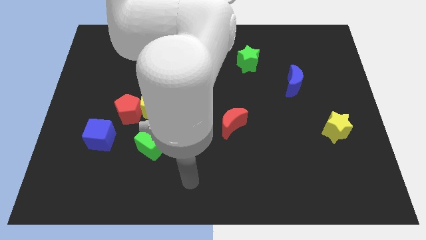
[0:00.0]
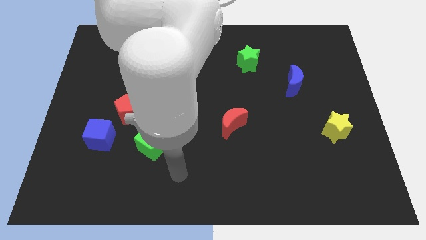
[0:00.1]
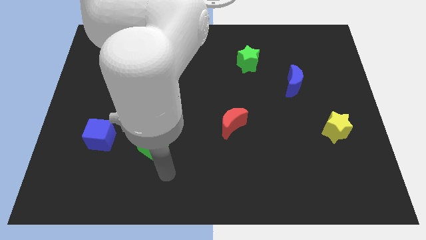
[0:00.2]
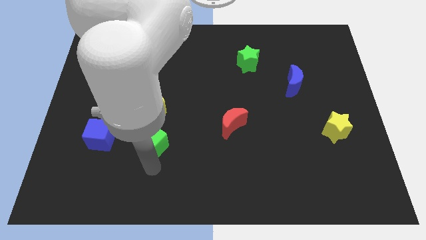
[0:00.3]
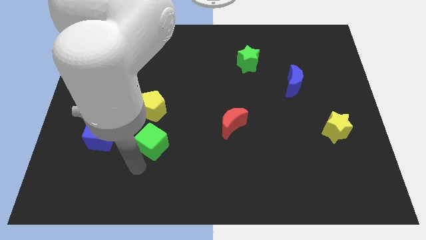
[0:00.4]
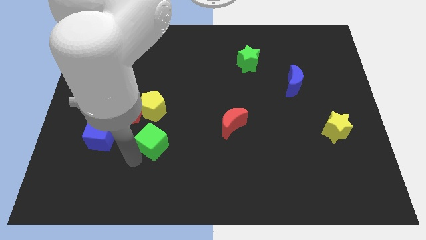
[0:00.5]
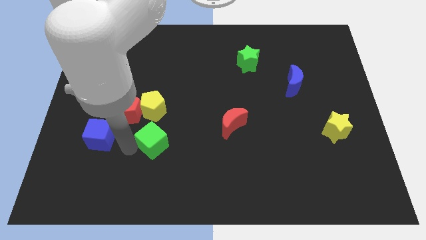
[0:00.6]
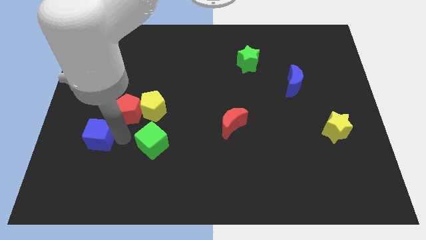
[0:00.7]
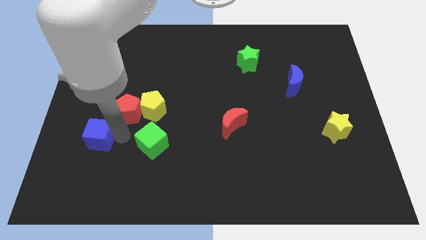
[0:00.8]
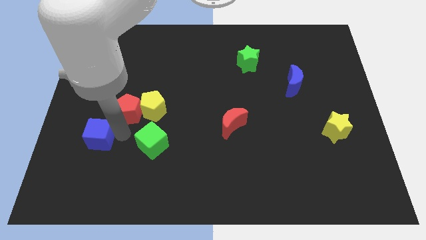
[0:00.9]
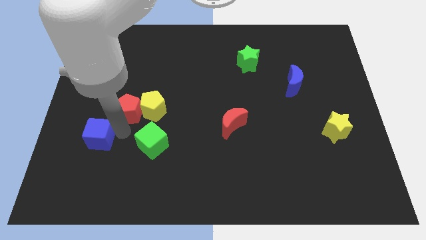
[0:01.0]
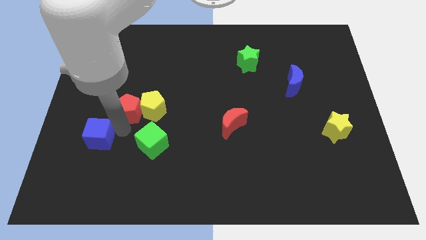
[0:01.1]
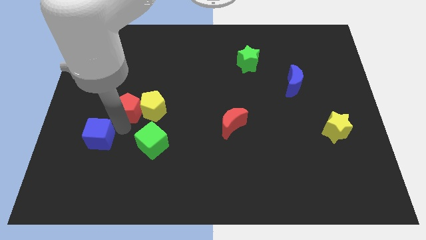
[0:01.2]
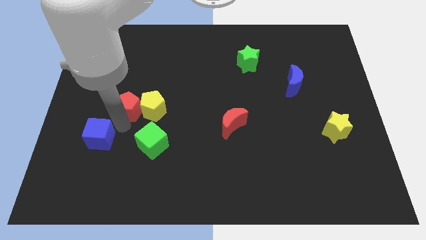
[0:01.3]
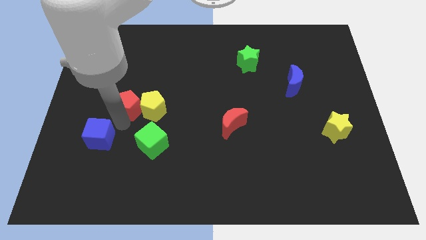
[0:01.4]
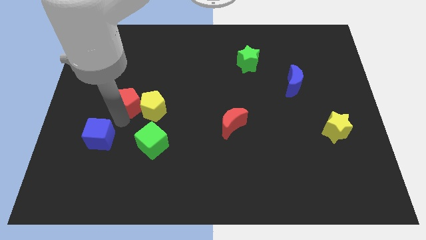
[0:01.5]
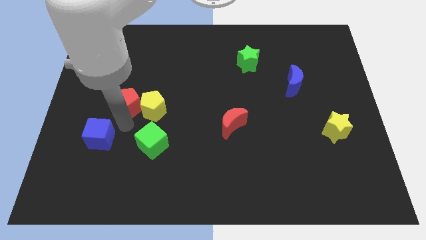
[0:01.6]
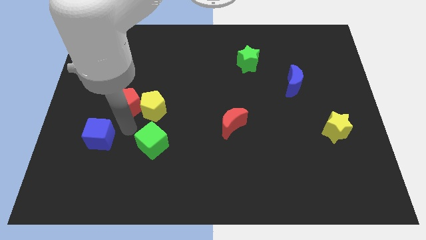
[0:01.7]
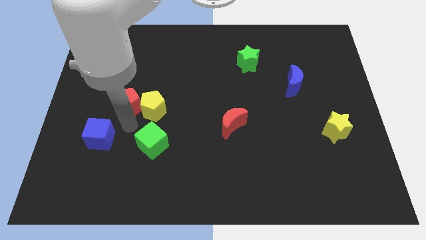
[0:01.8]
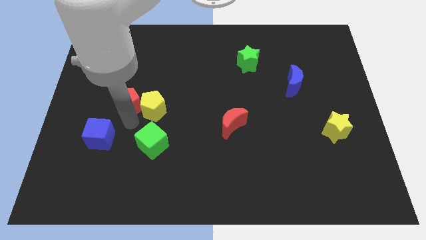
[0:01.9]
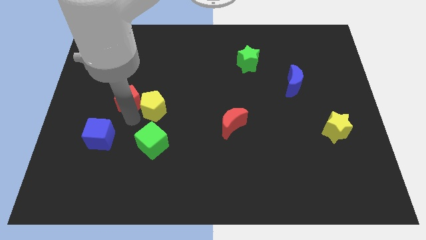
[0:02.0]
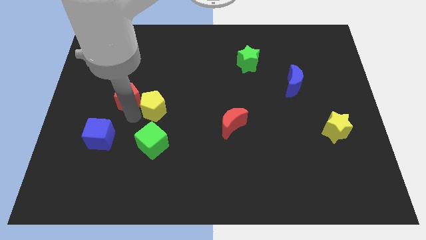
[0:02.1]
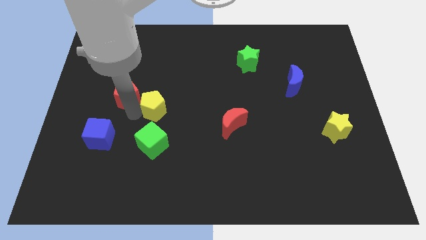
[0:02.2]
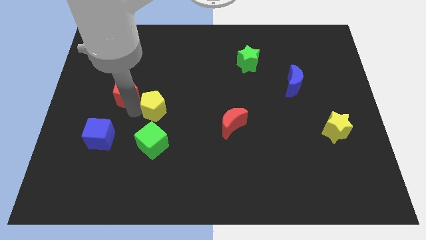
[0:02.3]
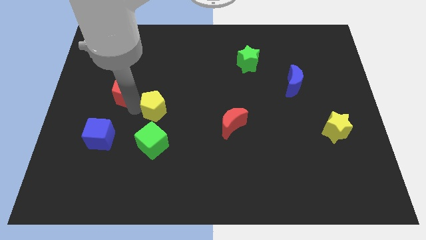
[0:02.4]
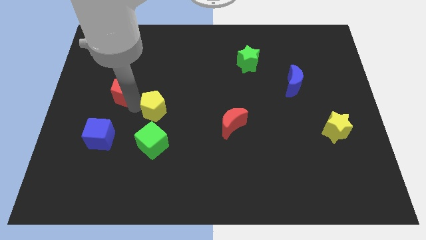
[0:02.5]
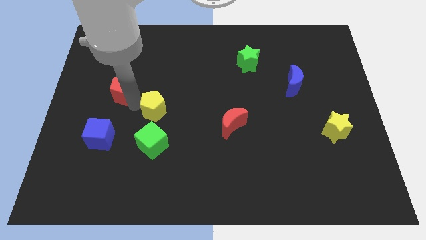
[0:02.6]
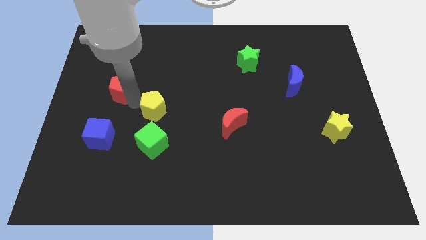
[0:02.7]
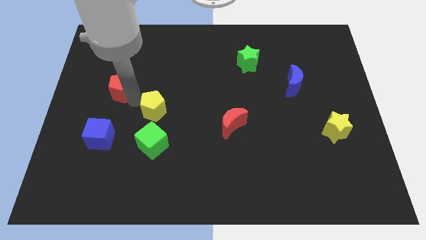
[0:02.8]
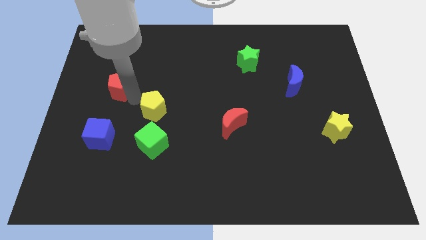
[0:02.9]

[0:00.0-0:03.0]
separate the red pentagon from the yellow pentagon and blue cube

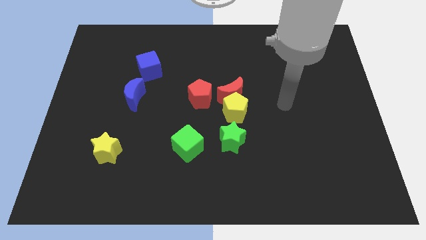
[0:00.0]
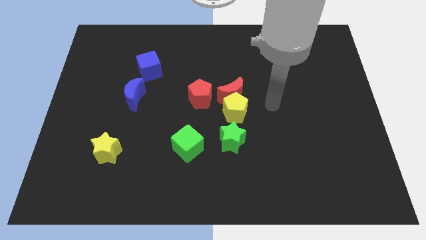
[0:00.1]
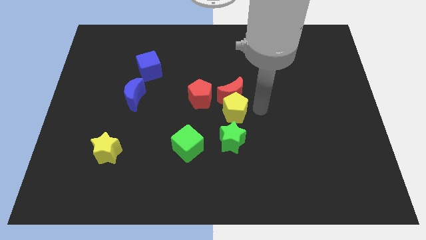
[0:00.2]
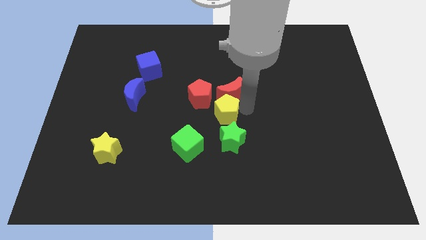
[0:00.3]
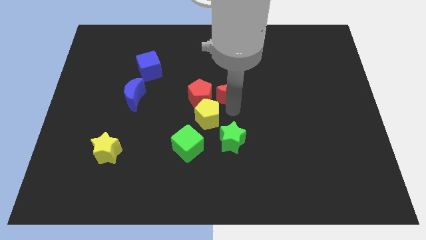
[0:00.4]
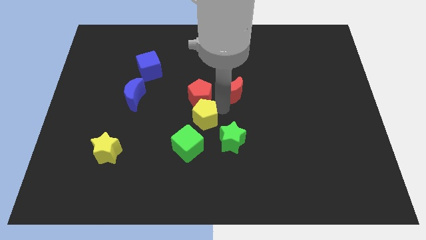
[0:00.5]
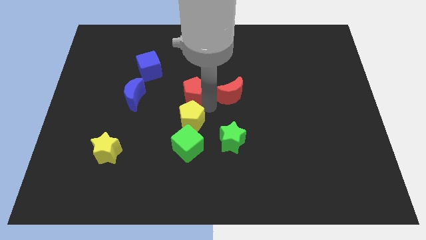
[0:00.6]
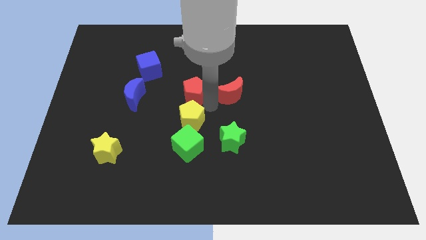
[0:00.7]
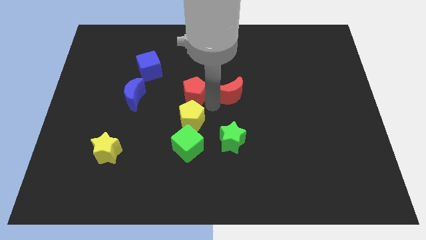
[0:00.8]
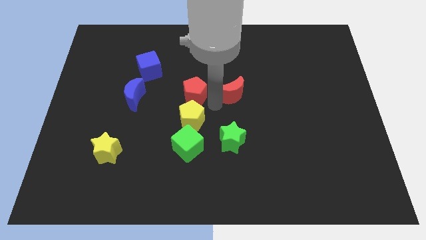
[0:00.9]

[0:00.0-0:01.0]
pull the red moon apart from the yellow pentagon and red pentagon

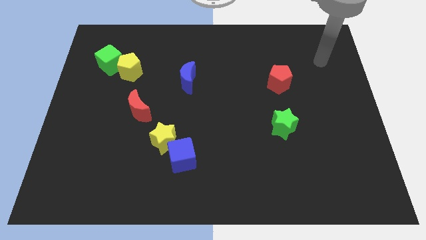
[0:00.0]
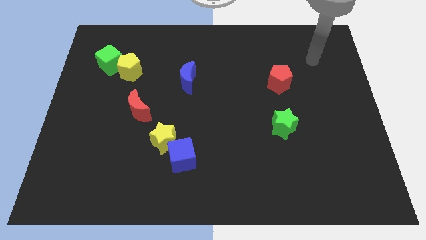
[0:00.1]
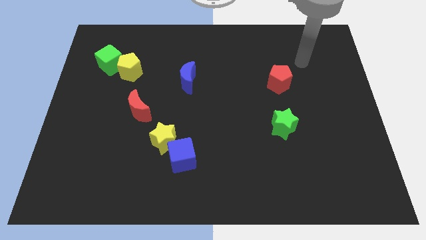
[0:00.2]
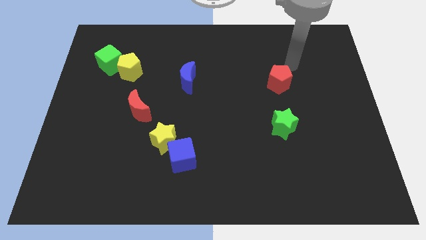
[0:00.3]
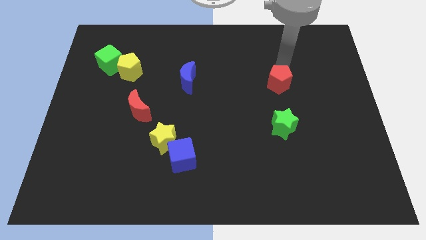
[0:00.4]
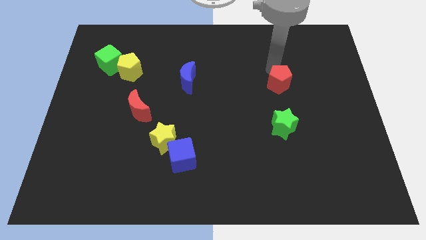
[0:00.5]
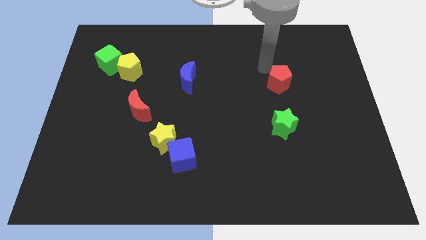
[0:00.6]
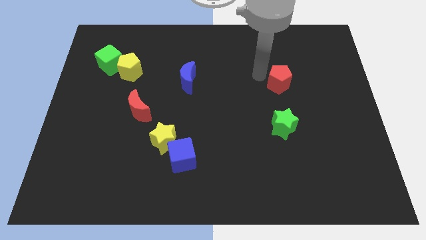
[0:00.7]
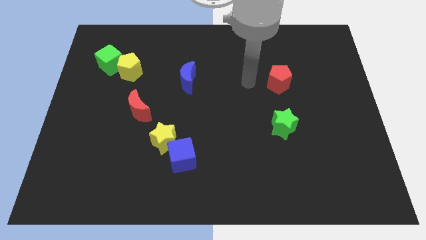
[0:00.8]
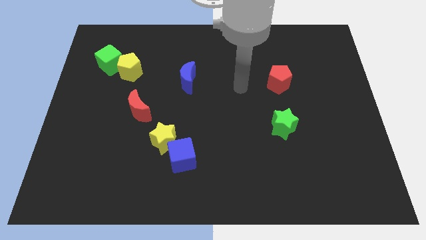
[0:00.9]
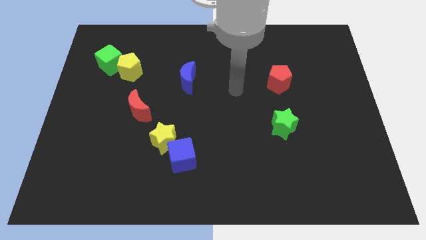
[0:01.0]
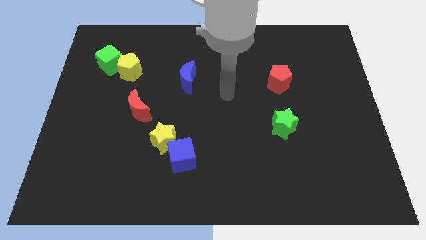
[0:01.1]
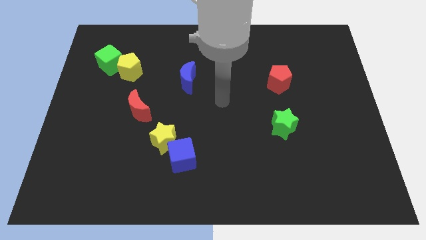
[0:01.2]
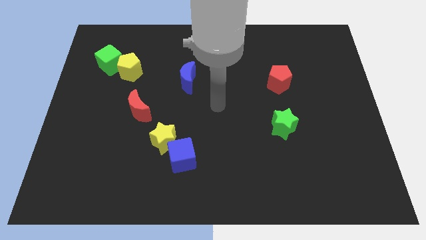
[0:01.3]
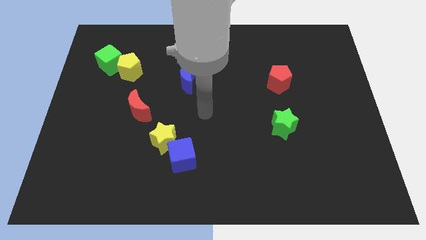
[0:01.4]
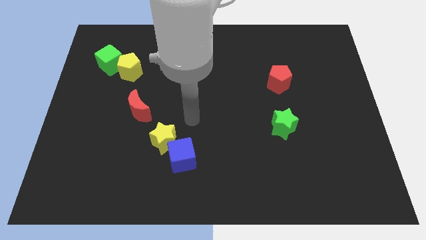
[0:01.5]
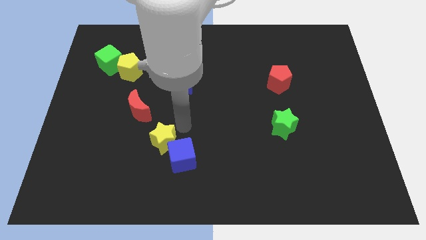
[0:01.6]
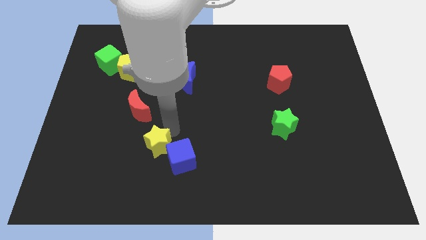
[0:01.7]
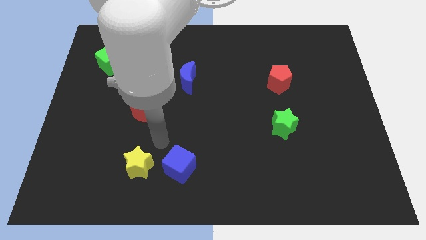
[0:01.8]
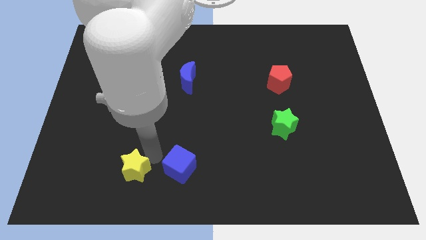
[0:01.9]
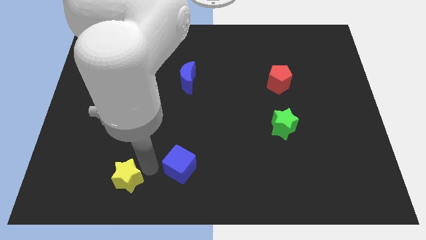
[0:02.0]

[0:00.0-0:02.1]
pull the blue cube apart from the yellow star

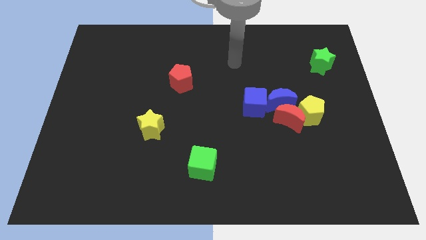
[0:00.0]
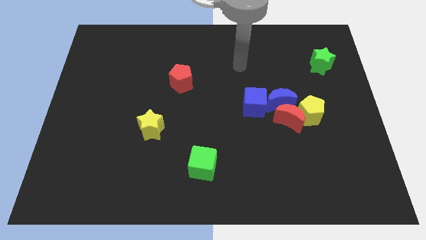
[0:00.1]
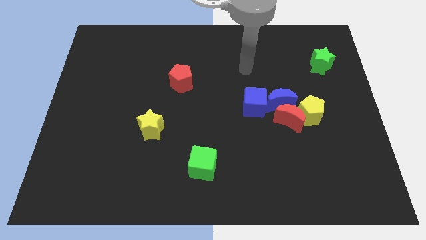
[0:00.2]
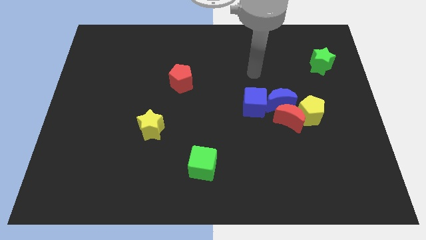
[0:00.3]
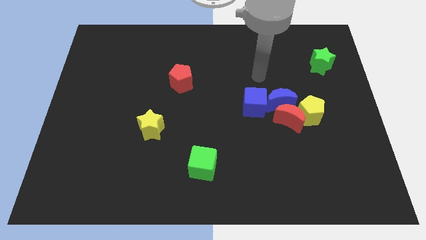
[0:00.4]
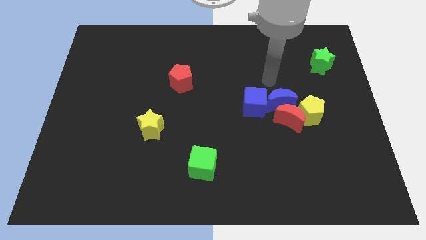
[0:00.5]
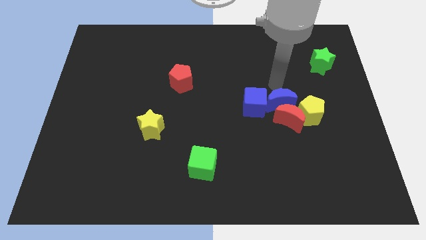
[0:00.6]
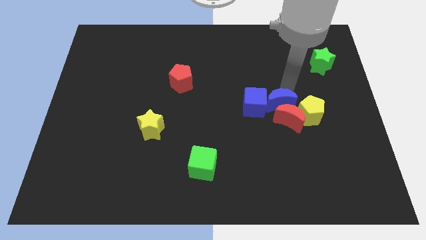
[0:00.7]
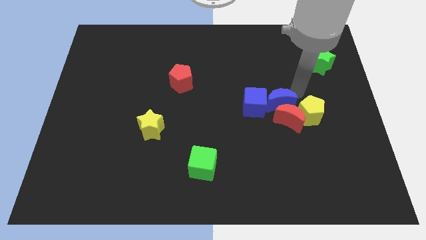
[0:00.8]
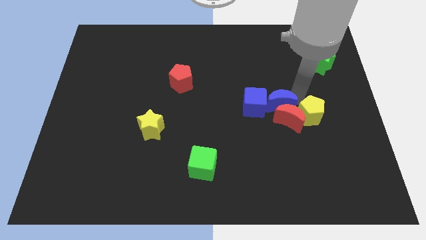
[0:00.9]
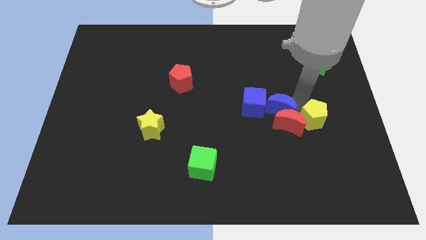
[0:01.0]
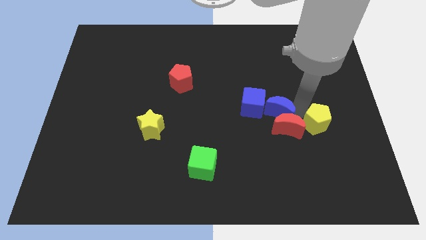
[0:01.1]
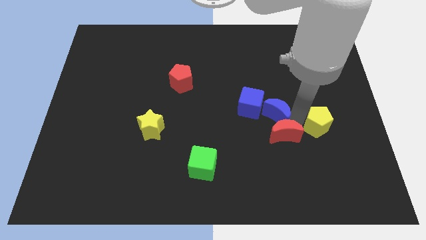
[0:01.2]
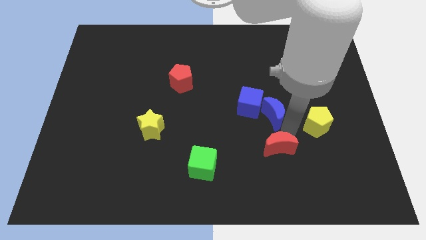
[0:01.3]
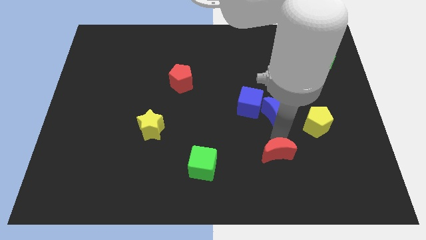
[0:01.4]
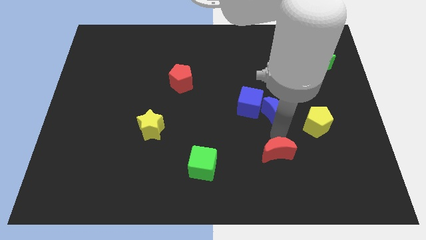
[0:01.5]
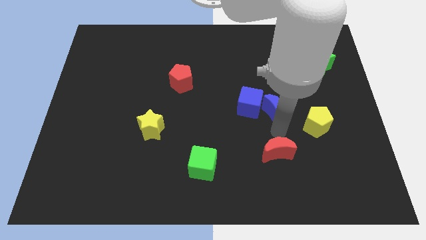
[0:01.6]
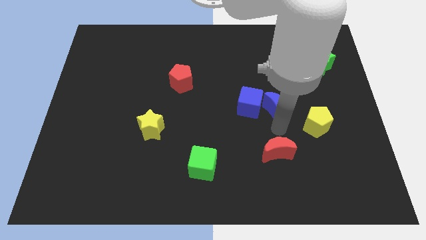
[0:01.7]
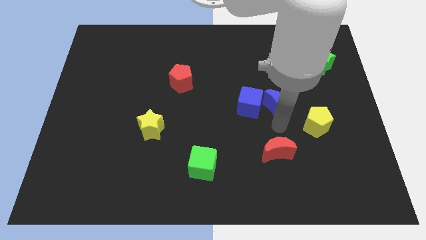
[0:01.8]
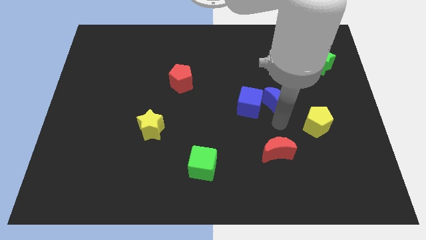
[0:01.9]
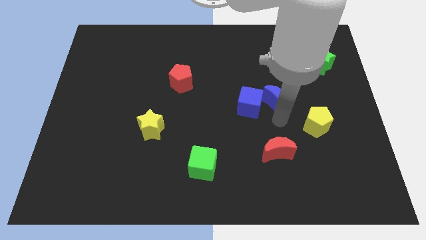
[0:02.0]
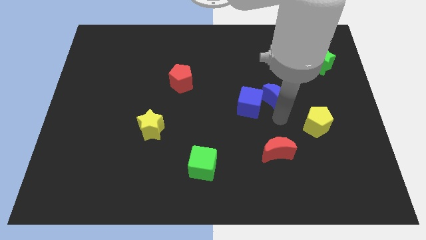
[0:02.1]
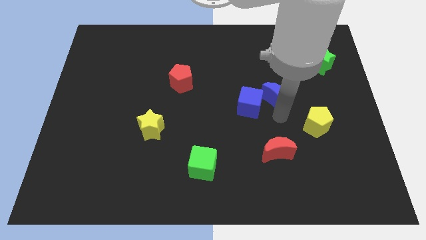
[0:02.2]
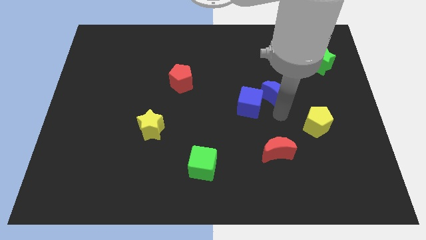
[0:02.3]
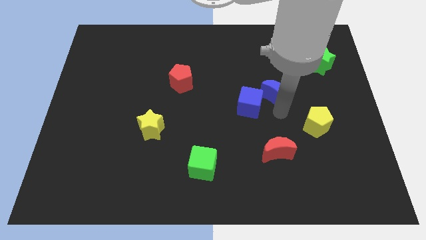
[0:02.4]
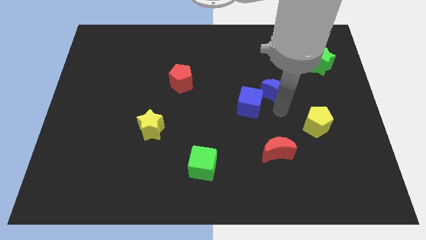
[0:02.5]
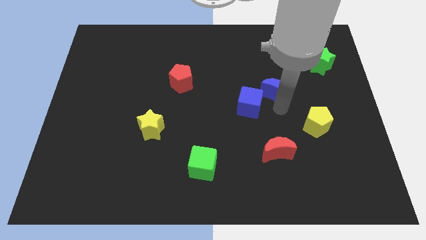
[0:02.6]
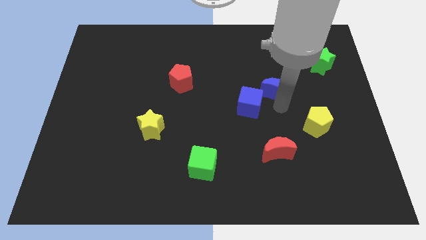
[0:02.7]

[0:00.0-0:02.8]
move the blue moon away from the clump

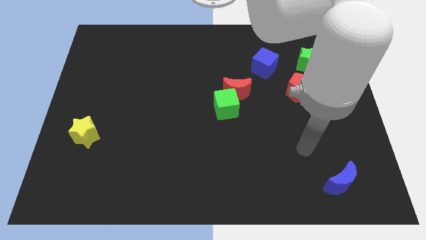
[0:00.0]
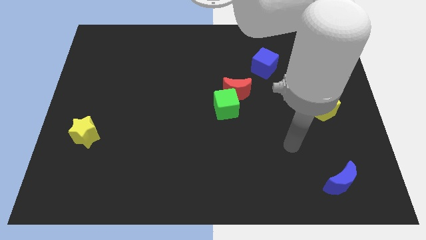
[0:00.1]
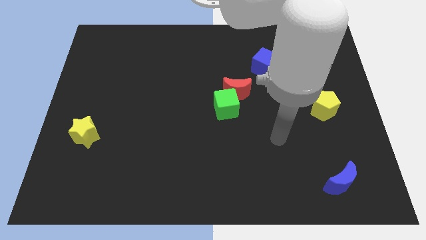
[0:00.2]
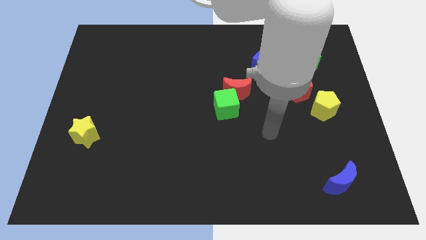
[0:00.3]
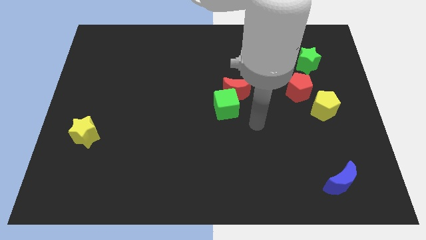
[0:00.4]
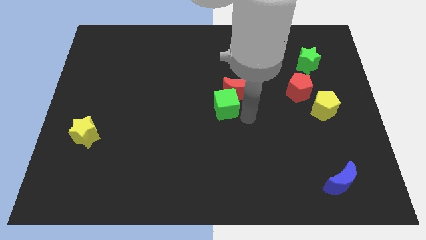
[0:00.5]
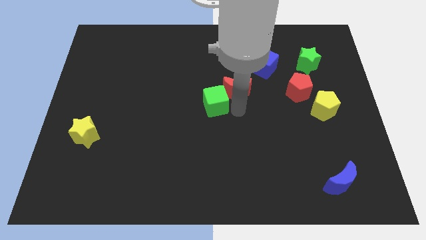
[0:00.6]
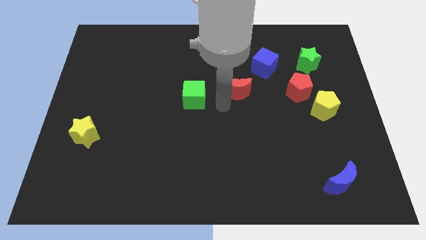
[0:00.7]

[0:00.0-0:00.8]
pull the red moon apart from the green cube
